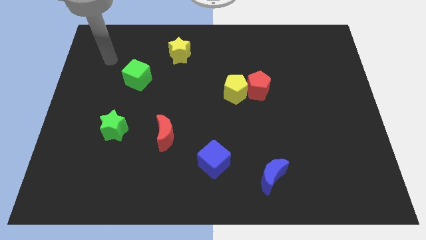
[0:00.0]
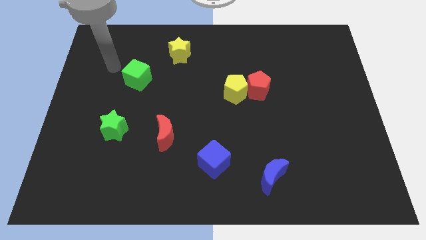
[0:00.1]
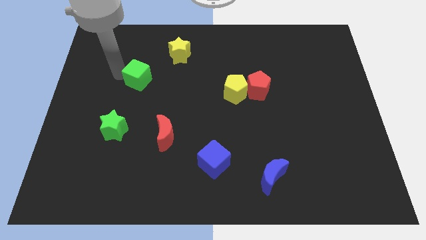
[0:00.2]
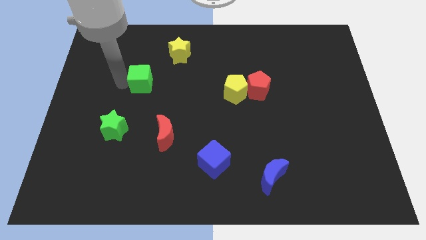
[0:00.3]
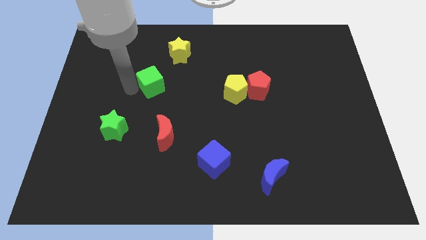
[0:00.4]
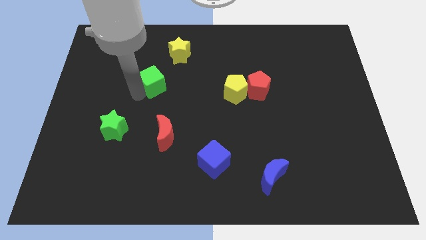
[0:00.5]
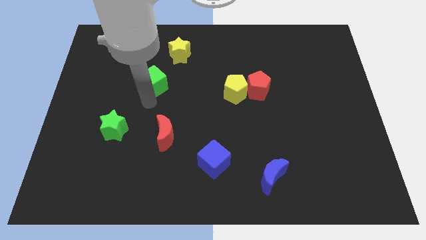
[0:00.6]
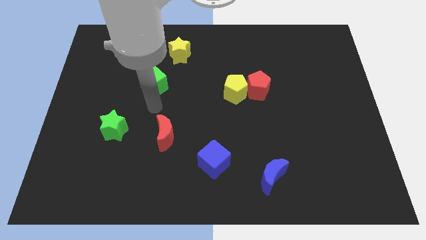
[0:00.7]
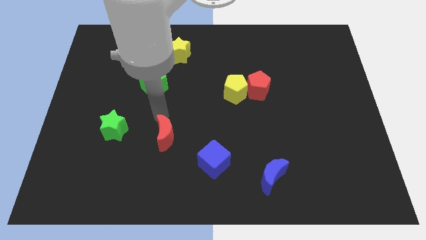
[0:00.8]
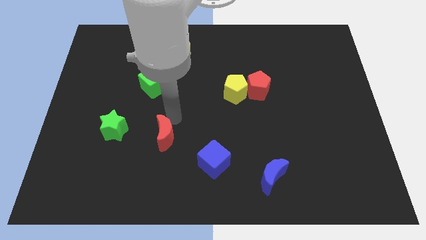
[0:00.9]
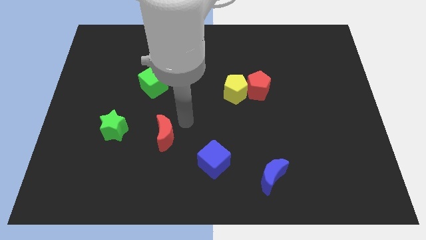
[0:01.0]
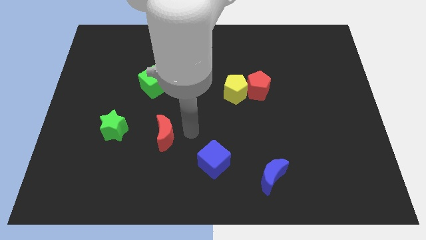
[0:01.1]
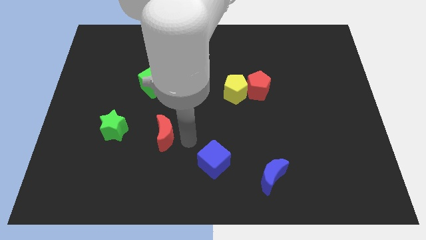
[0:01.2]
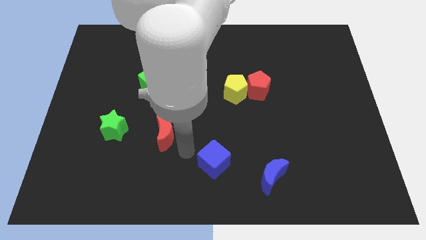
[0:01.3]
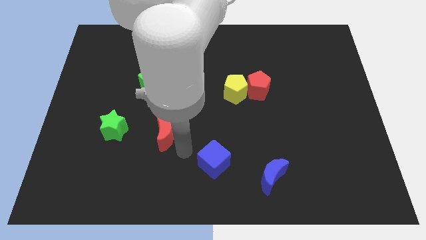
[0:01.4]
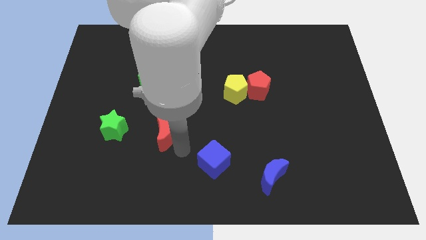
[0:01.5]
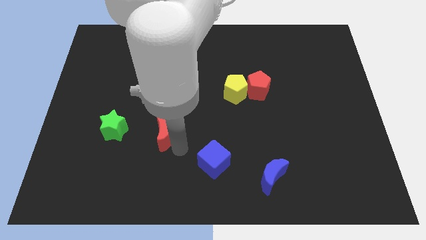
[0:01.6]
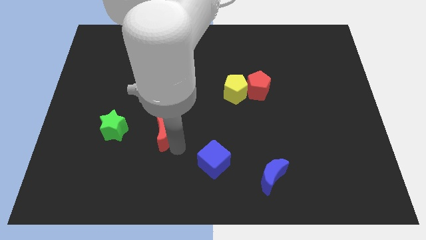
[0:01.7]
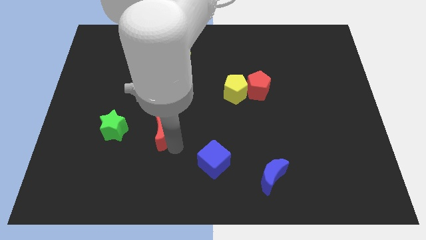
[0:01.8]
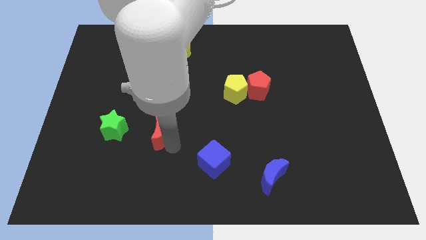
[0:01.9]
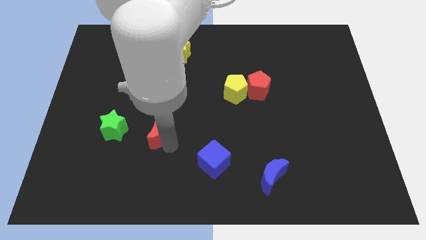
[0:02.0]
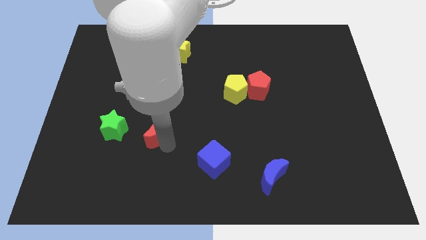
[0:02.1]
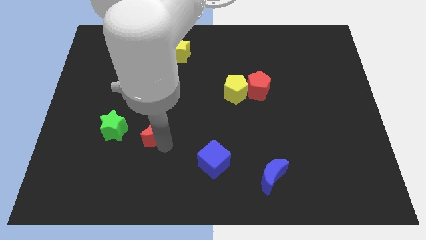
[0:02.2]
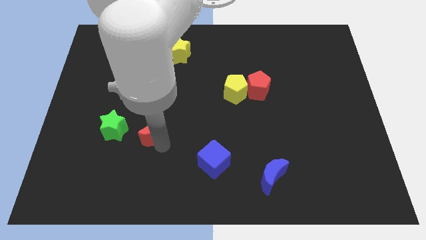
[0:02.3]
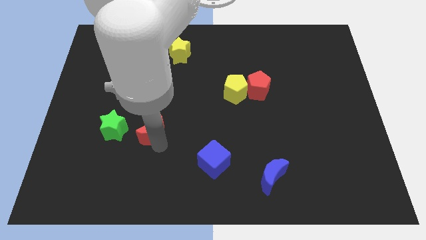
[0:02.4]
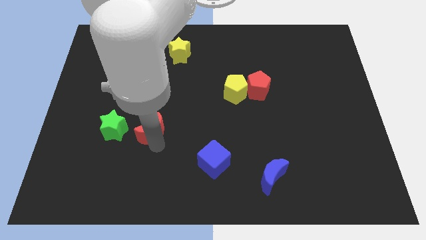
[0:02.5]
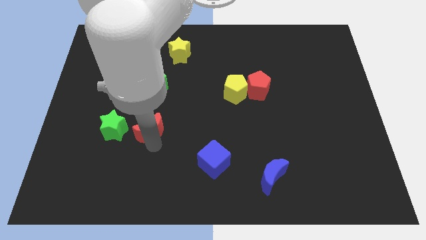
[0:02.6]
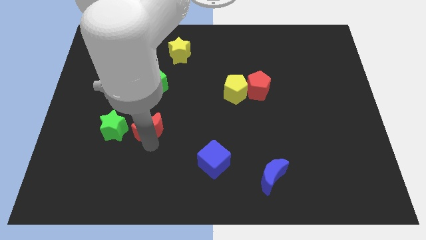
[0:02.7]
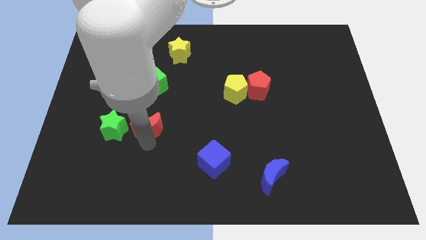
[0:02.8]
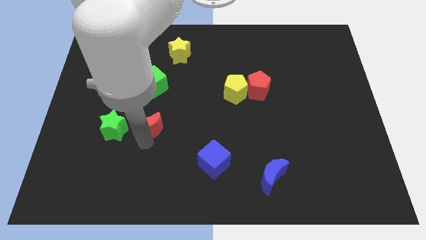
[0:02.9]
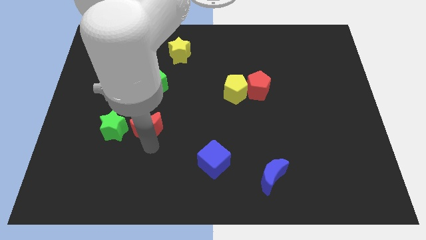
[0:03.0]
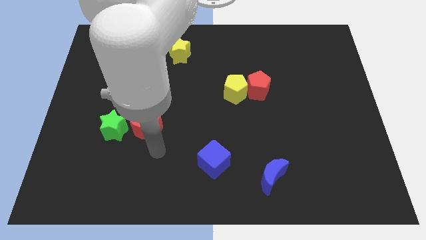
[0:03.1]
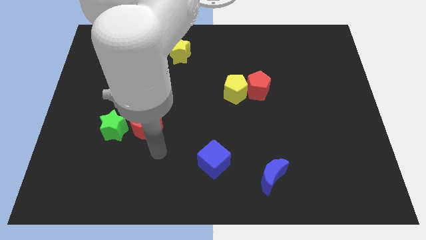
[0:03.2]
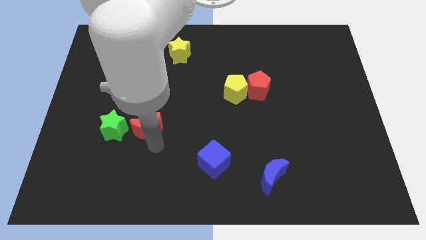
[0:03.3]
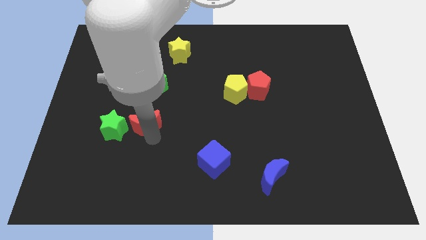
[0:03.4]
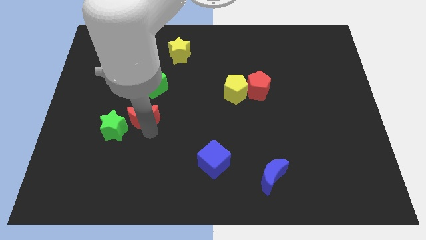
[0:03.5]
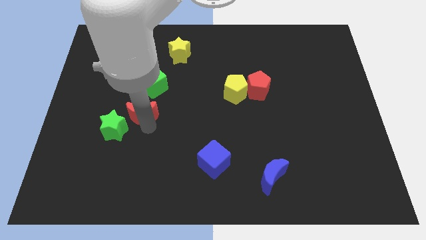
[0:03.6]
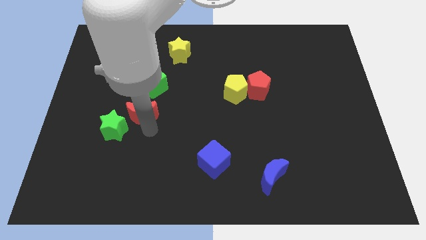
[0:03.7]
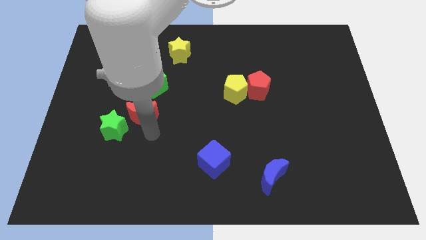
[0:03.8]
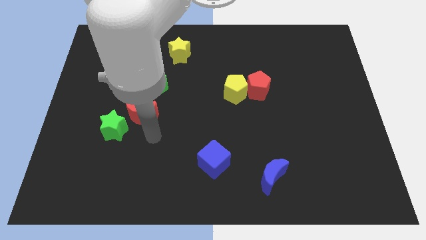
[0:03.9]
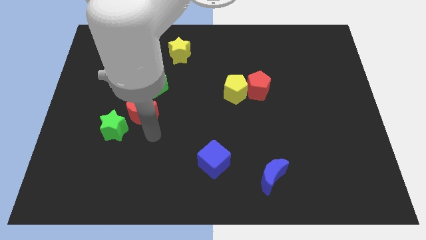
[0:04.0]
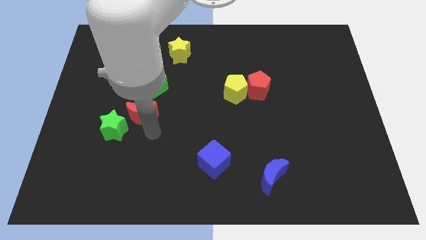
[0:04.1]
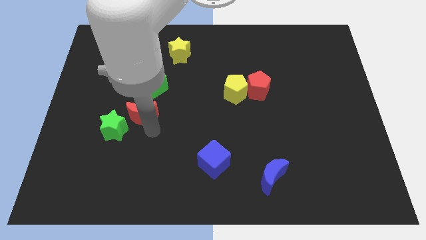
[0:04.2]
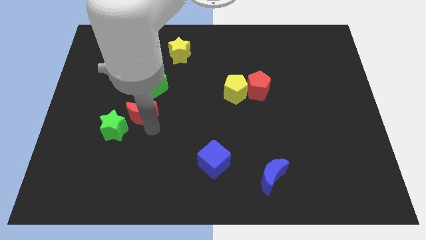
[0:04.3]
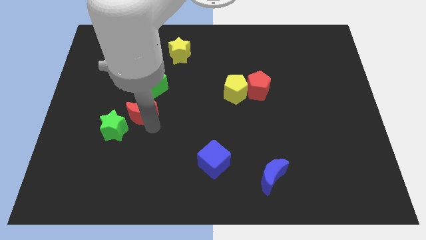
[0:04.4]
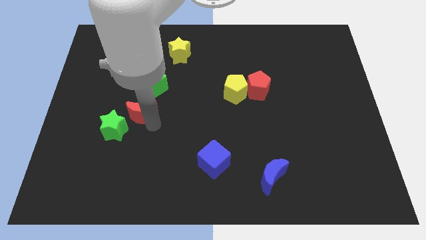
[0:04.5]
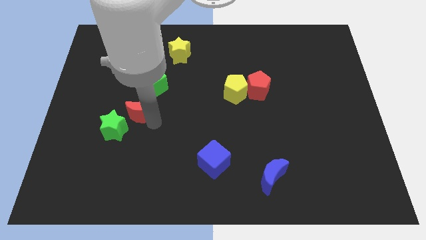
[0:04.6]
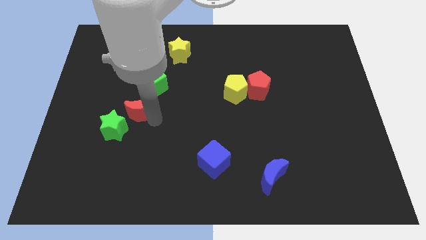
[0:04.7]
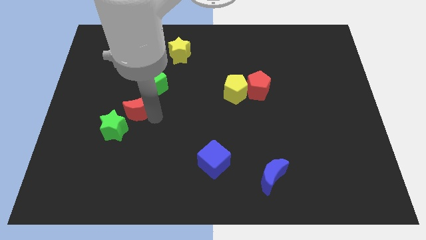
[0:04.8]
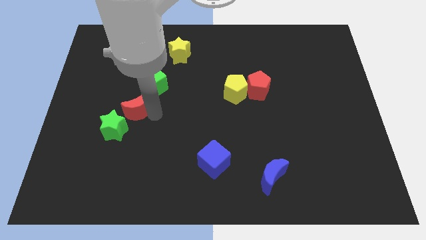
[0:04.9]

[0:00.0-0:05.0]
move the red moon to the top of the green star

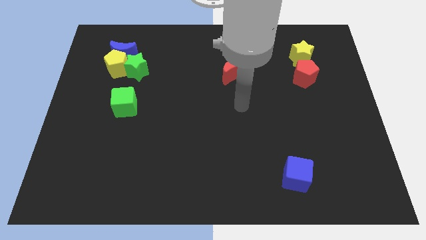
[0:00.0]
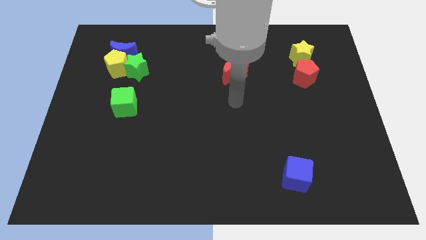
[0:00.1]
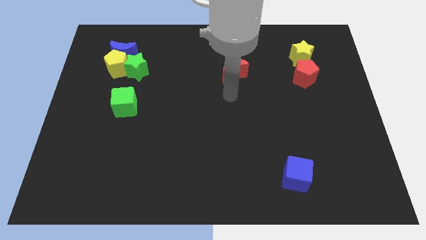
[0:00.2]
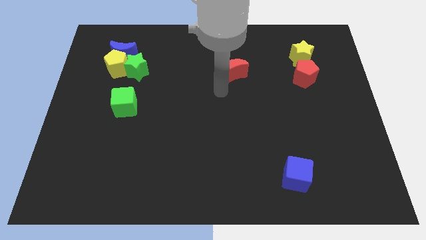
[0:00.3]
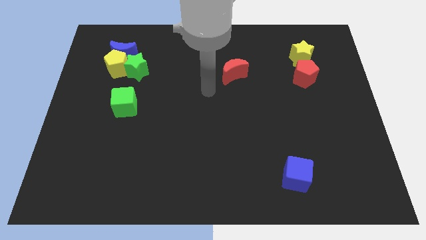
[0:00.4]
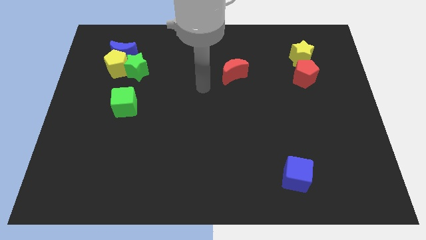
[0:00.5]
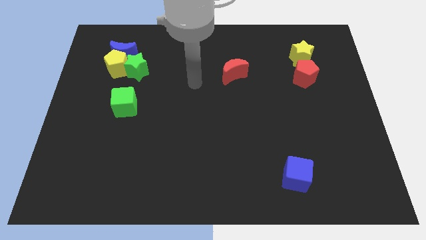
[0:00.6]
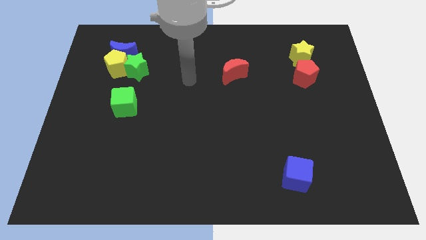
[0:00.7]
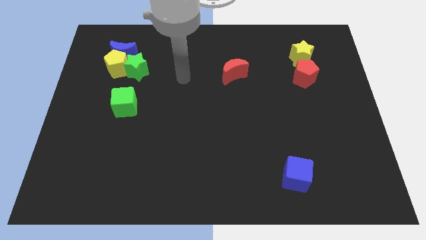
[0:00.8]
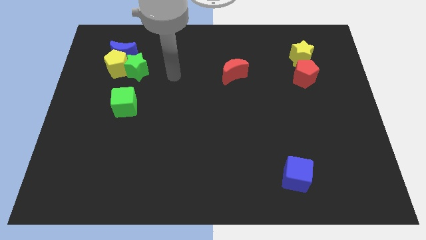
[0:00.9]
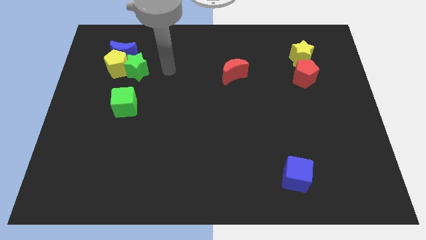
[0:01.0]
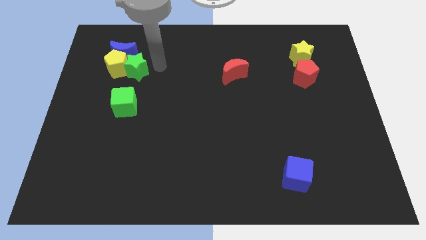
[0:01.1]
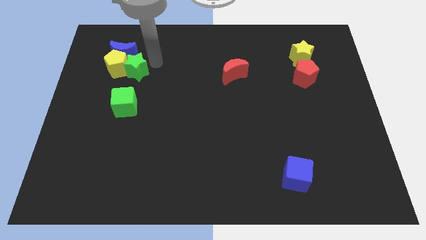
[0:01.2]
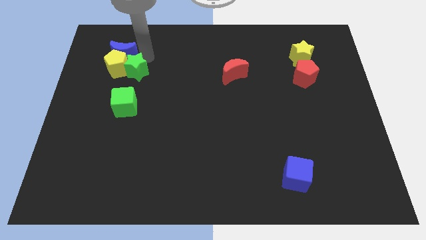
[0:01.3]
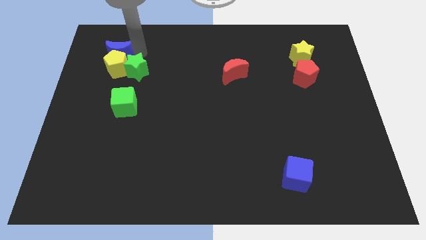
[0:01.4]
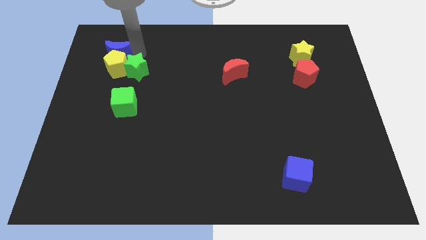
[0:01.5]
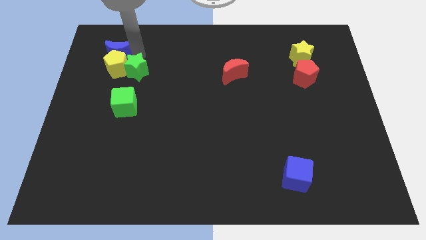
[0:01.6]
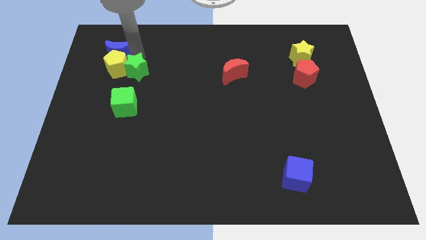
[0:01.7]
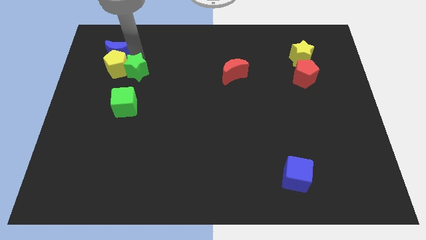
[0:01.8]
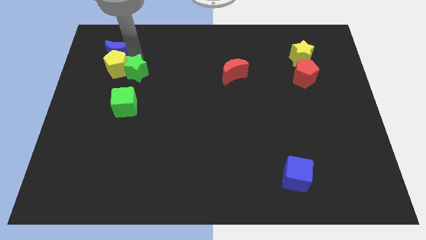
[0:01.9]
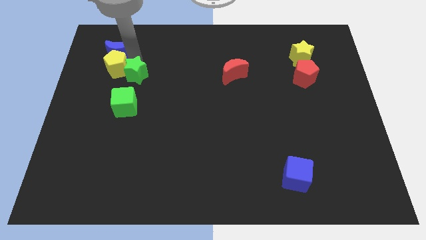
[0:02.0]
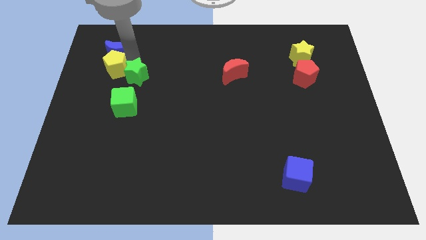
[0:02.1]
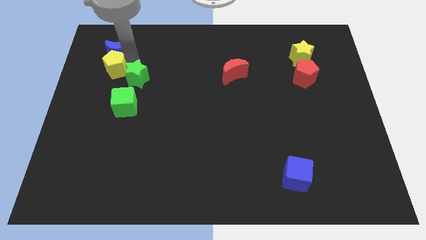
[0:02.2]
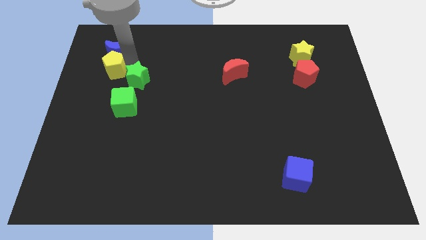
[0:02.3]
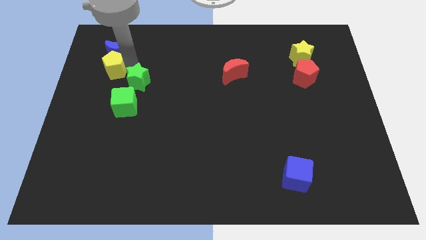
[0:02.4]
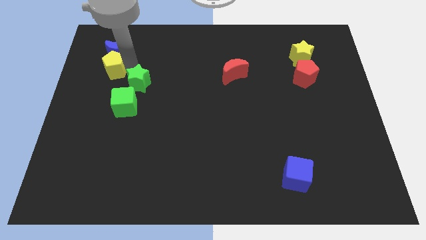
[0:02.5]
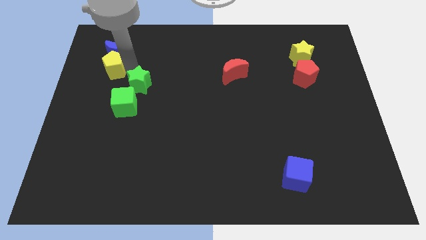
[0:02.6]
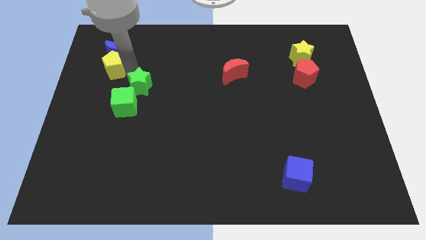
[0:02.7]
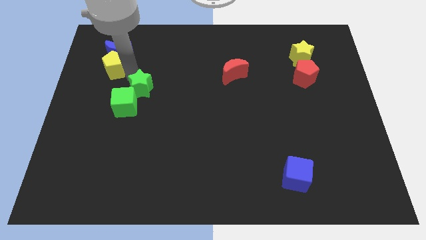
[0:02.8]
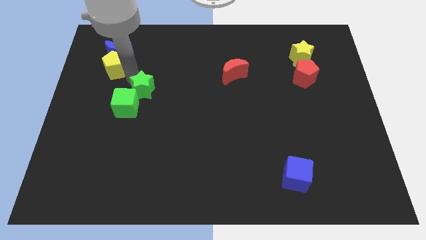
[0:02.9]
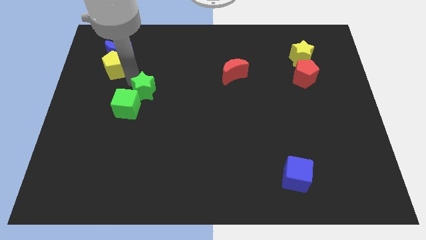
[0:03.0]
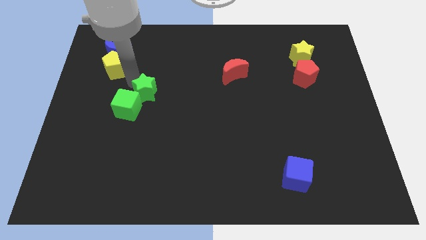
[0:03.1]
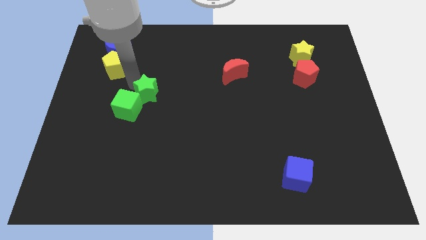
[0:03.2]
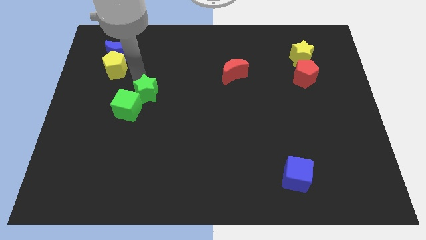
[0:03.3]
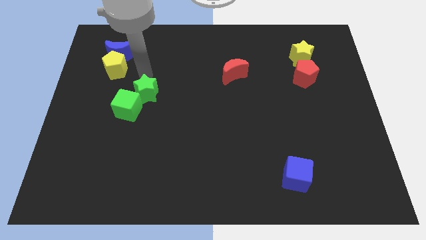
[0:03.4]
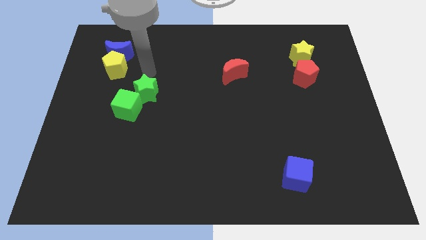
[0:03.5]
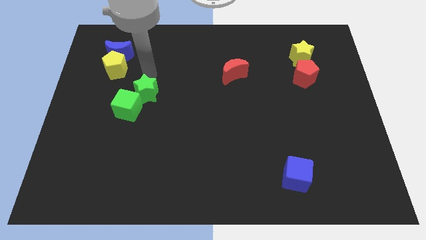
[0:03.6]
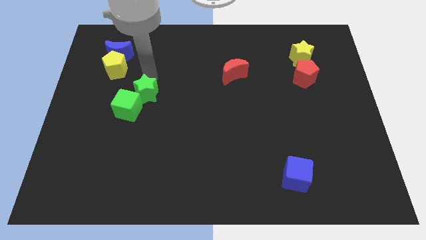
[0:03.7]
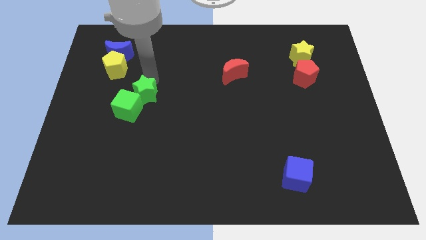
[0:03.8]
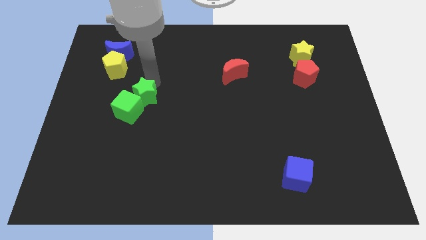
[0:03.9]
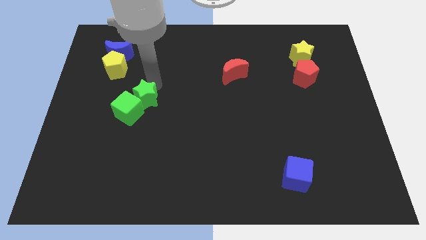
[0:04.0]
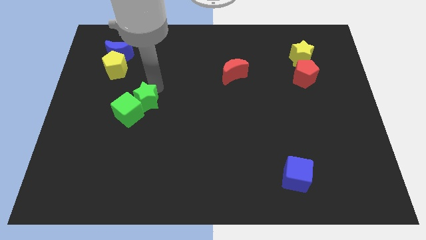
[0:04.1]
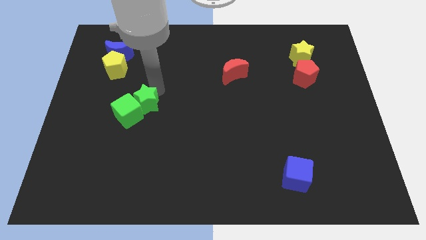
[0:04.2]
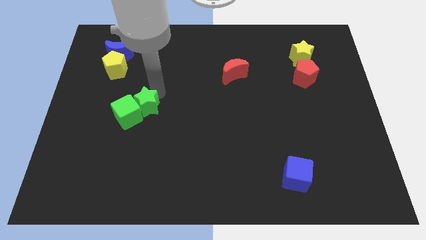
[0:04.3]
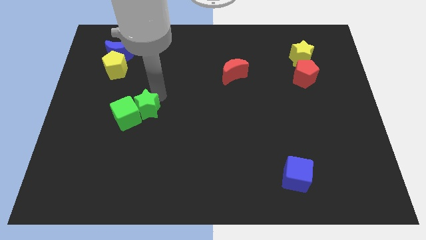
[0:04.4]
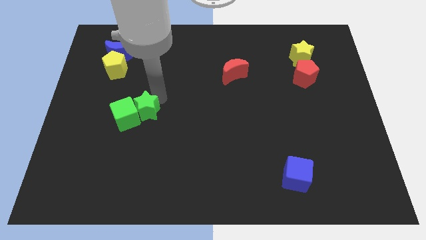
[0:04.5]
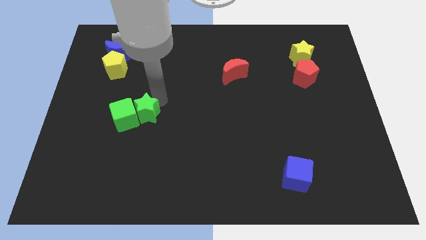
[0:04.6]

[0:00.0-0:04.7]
slide the green star to the bottom right of the green cube
